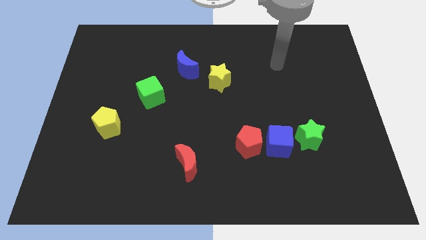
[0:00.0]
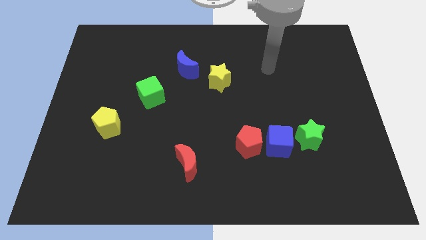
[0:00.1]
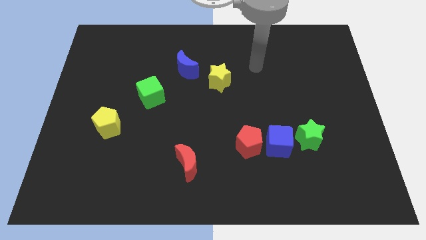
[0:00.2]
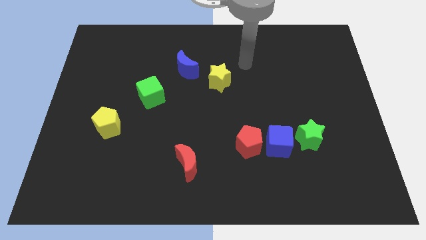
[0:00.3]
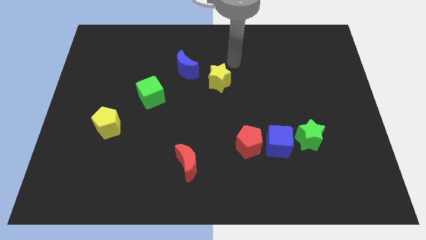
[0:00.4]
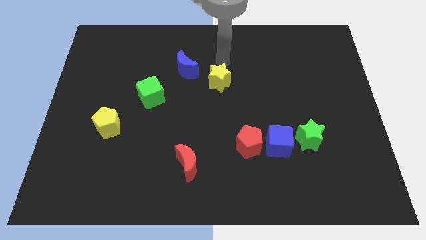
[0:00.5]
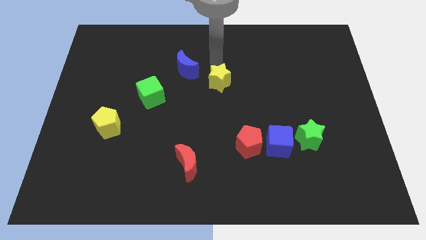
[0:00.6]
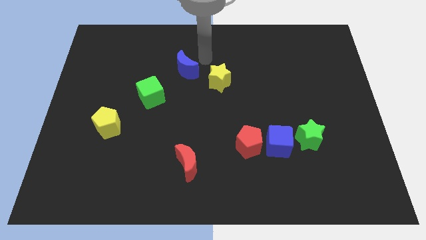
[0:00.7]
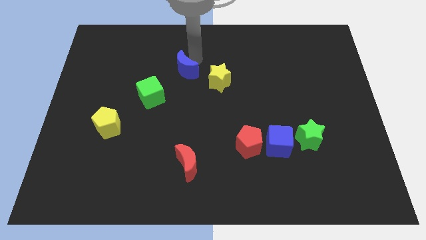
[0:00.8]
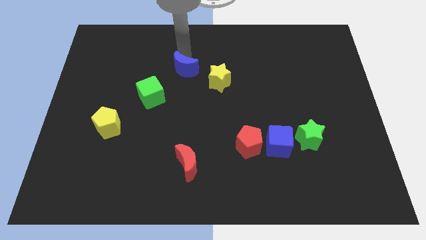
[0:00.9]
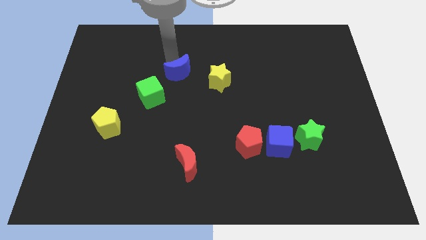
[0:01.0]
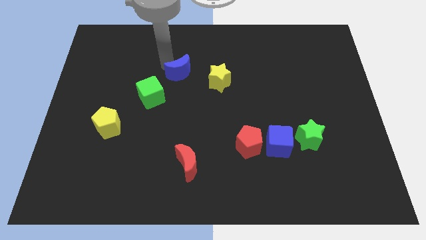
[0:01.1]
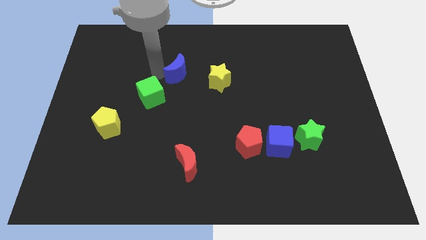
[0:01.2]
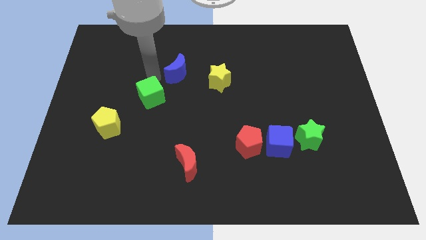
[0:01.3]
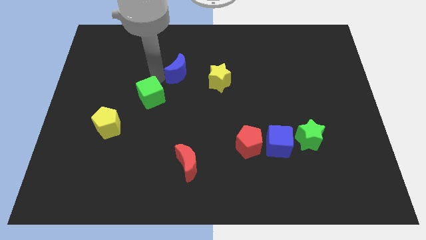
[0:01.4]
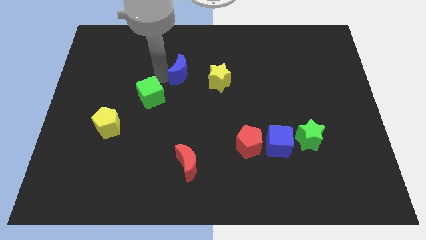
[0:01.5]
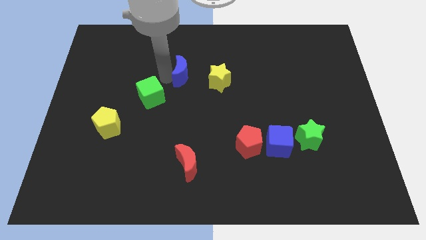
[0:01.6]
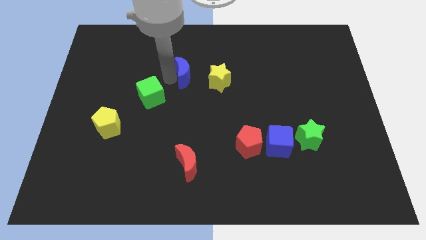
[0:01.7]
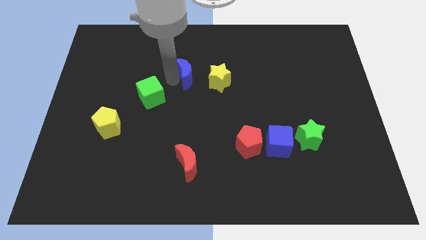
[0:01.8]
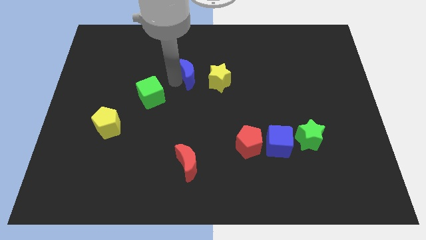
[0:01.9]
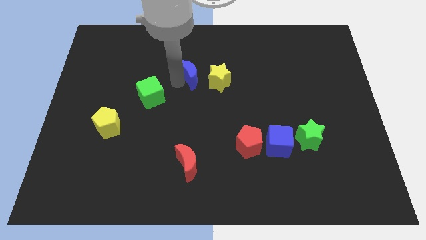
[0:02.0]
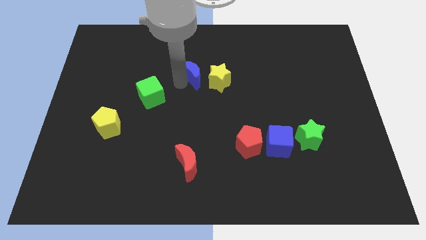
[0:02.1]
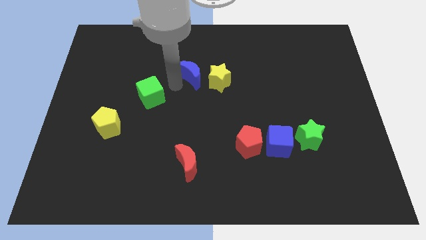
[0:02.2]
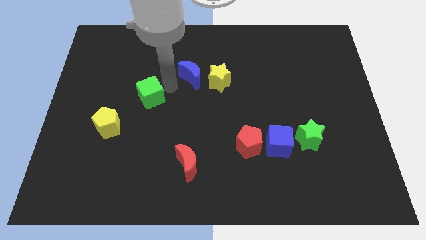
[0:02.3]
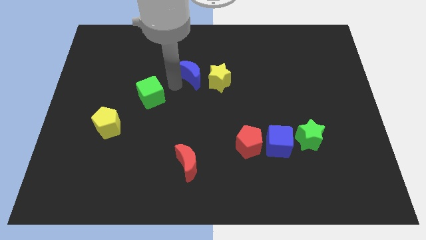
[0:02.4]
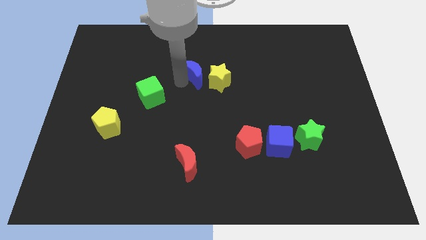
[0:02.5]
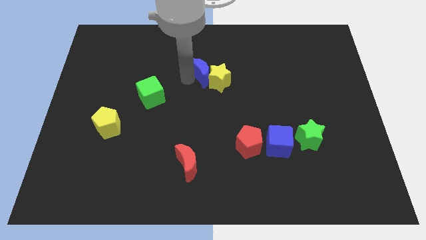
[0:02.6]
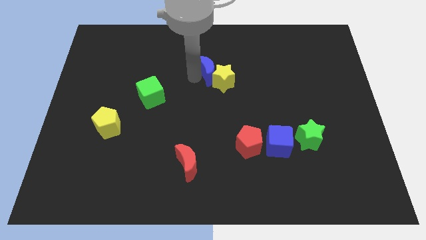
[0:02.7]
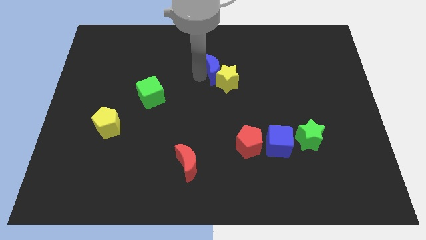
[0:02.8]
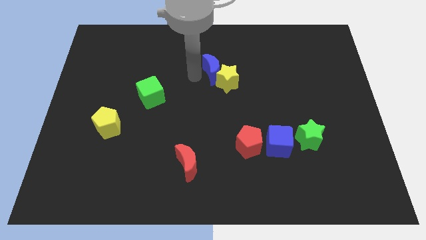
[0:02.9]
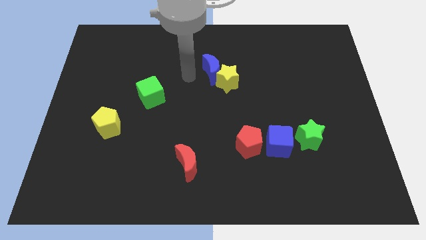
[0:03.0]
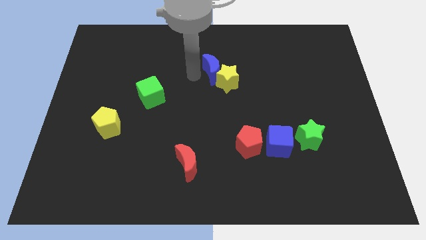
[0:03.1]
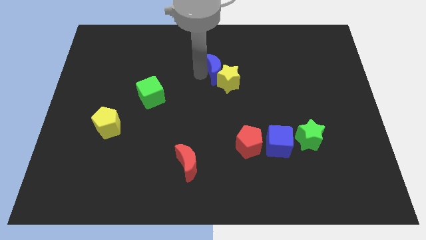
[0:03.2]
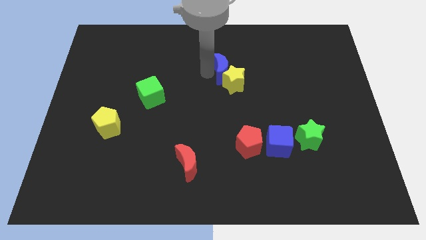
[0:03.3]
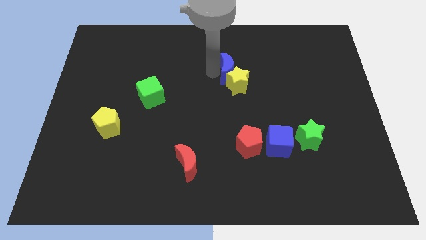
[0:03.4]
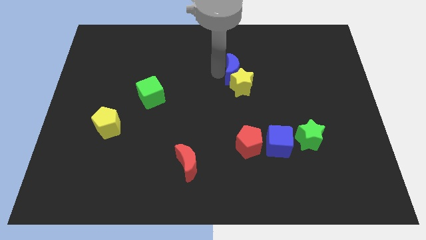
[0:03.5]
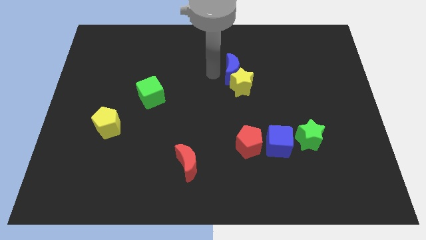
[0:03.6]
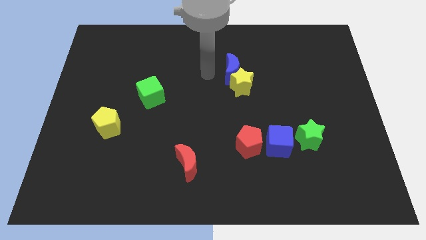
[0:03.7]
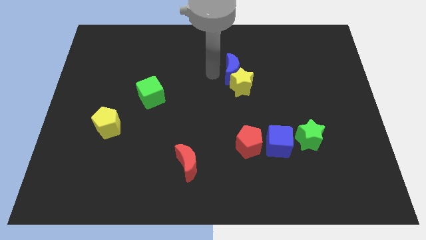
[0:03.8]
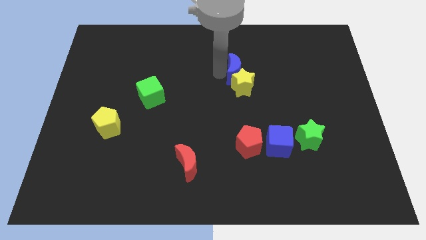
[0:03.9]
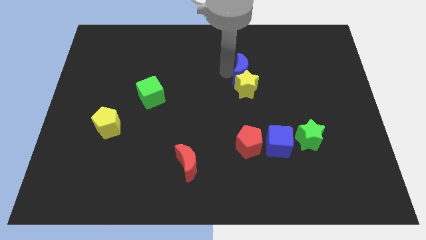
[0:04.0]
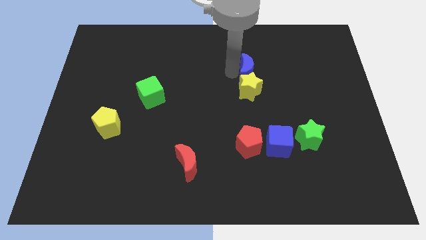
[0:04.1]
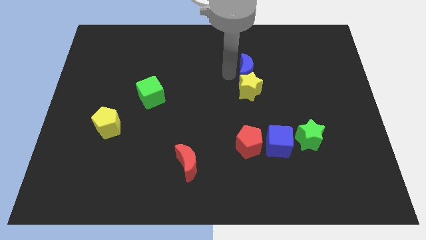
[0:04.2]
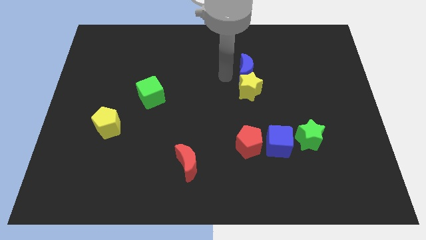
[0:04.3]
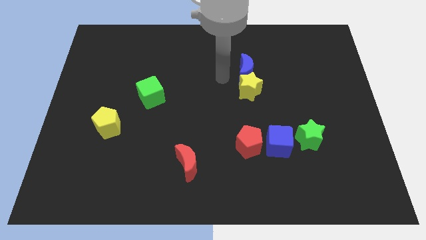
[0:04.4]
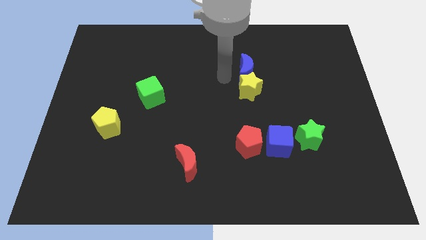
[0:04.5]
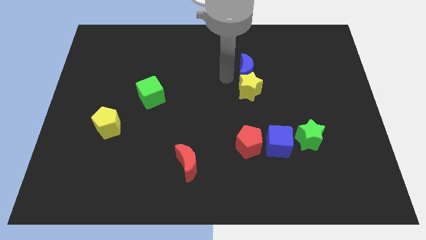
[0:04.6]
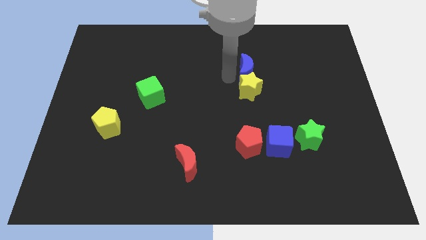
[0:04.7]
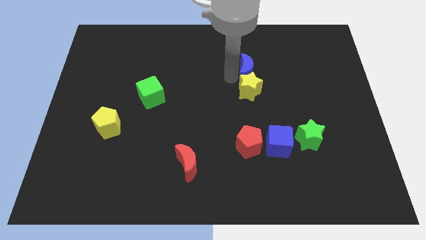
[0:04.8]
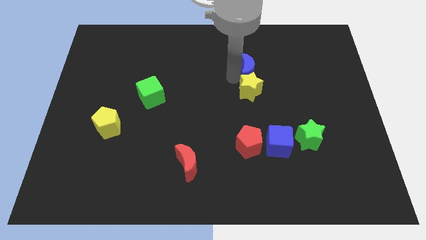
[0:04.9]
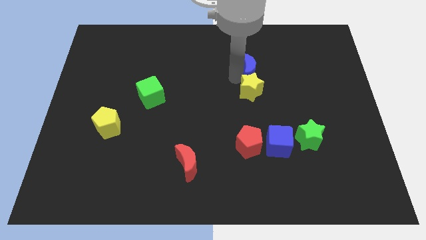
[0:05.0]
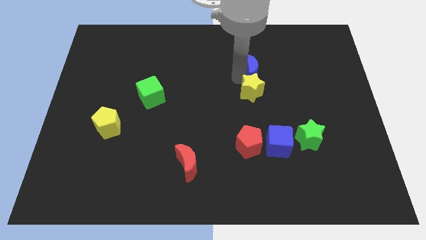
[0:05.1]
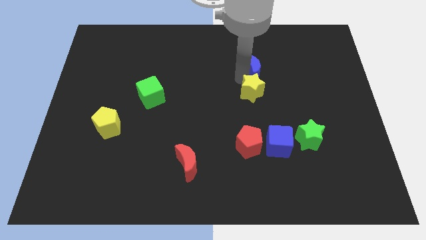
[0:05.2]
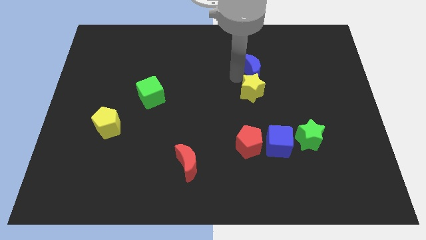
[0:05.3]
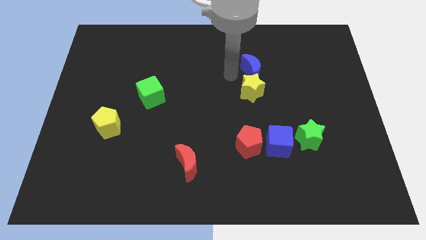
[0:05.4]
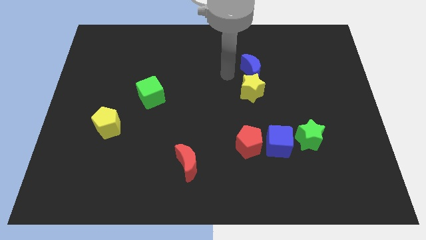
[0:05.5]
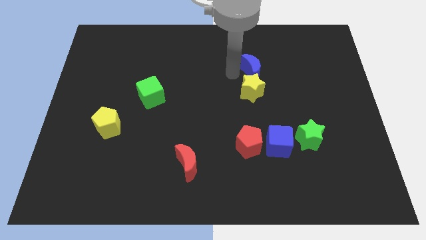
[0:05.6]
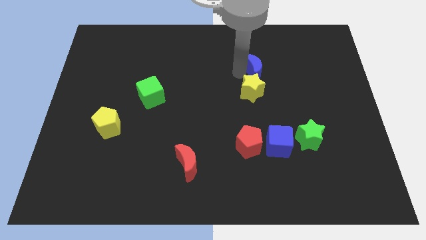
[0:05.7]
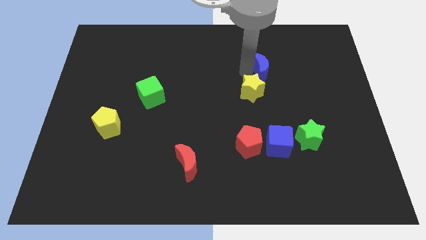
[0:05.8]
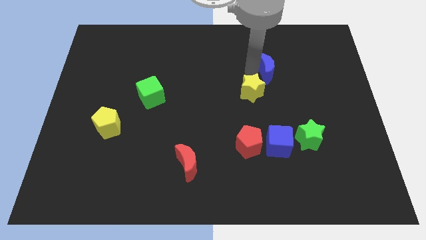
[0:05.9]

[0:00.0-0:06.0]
push the blue moon to the right

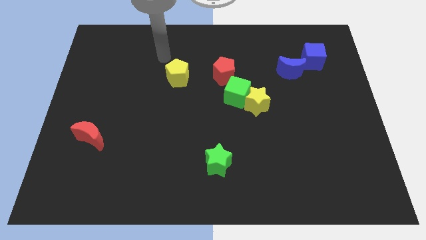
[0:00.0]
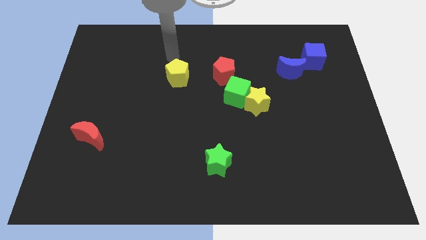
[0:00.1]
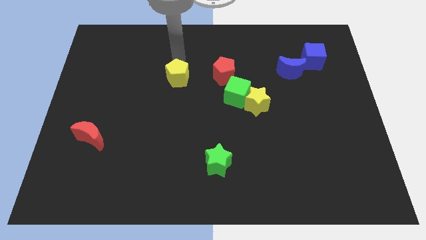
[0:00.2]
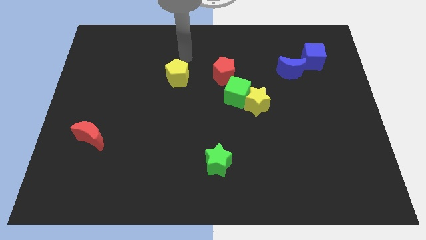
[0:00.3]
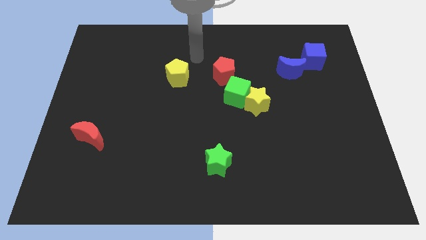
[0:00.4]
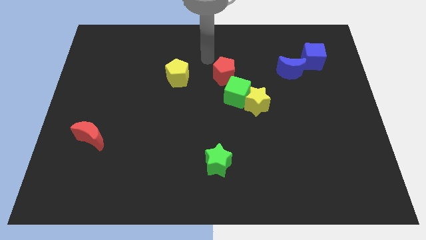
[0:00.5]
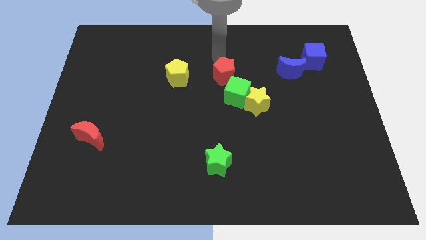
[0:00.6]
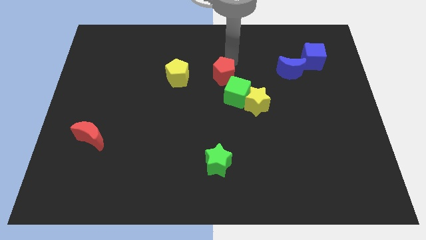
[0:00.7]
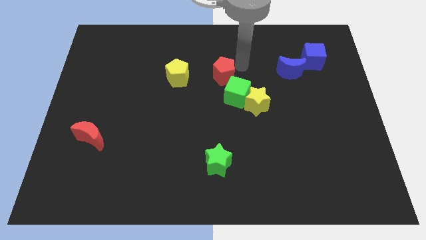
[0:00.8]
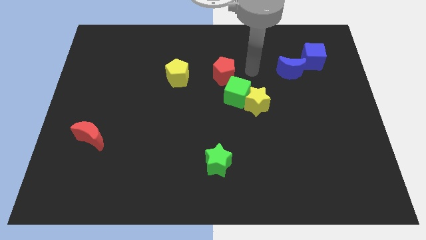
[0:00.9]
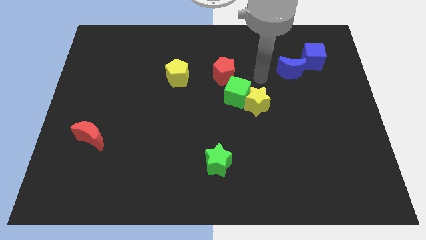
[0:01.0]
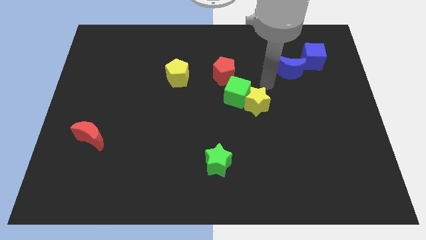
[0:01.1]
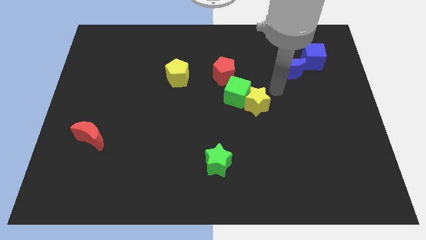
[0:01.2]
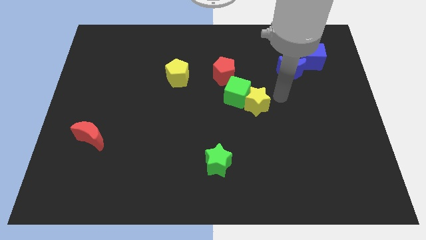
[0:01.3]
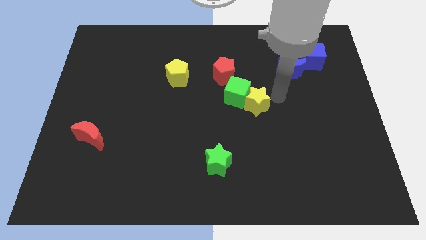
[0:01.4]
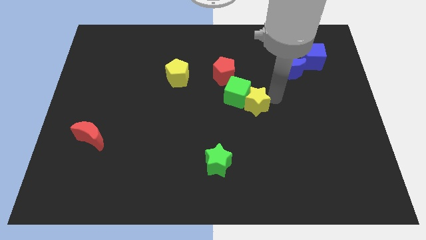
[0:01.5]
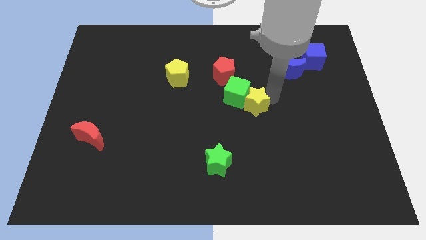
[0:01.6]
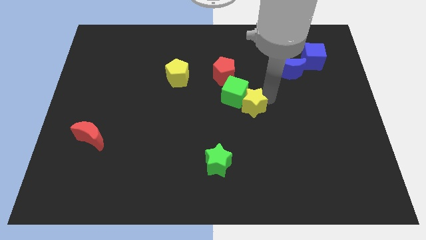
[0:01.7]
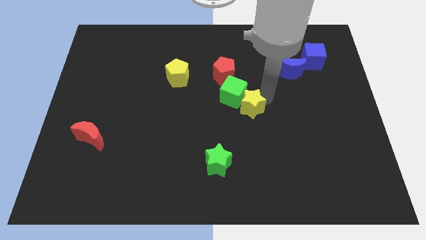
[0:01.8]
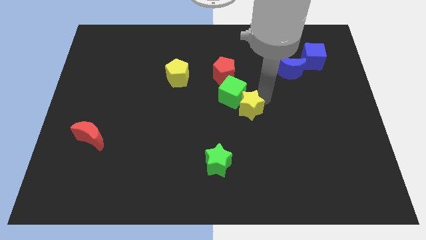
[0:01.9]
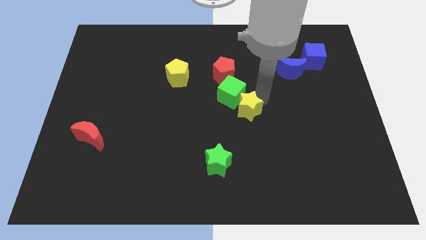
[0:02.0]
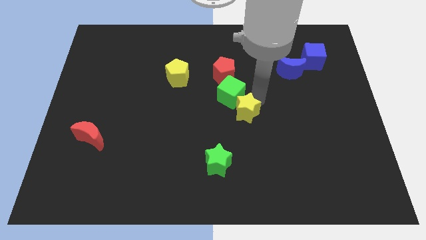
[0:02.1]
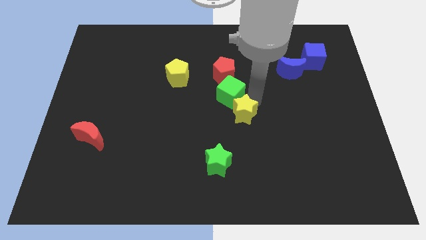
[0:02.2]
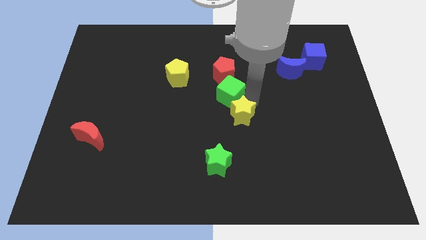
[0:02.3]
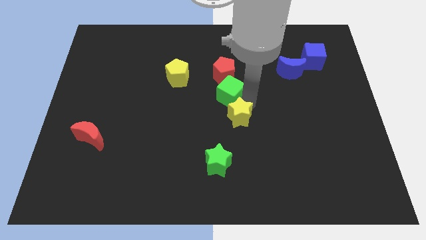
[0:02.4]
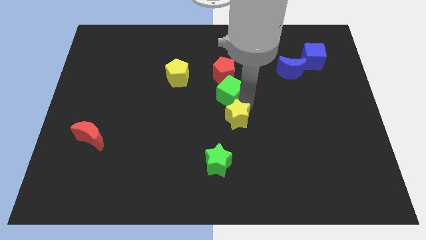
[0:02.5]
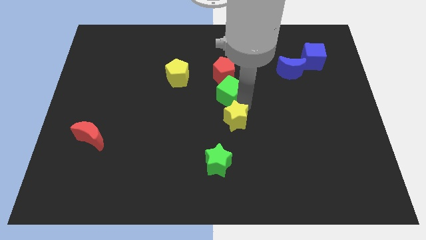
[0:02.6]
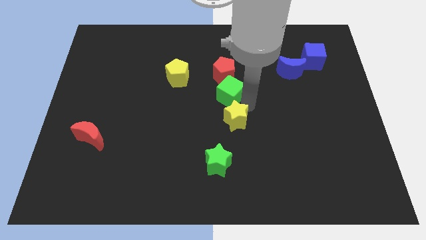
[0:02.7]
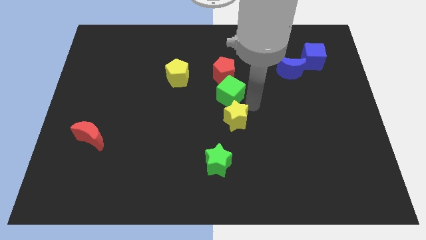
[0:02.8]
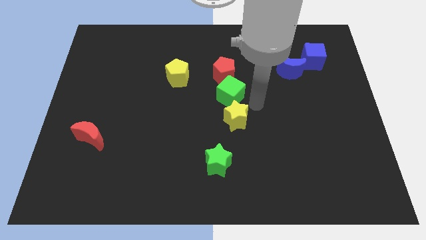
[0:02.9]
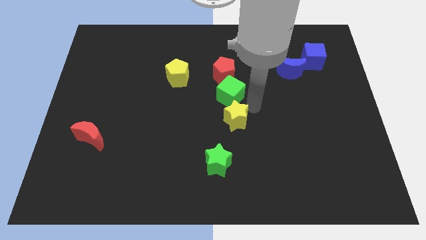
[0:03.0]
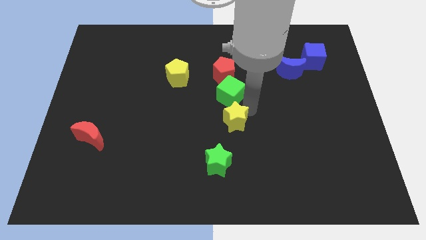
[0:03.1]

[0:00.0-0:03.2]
slide the yellow star down and to the left a little bit
